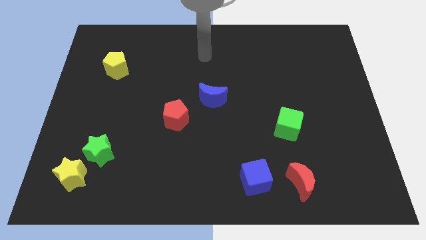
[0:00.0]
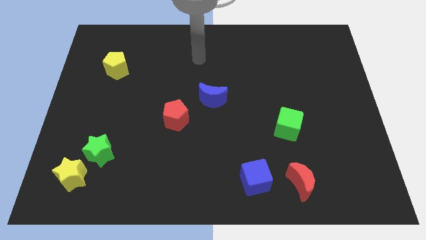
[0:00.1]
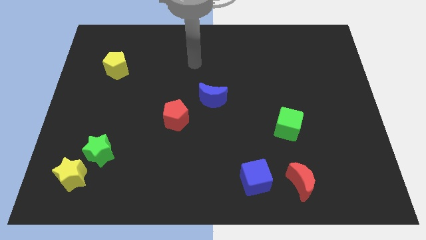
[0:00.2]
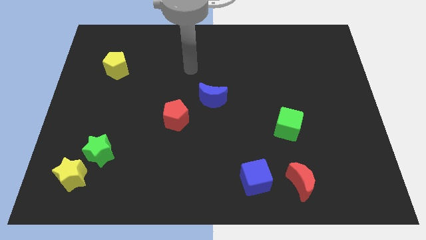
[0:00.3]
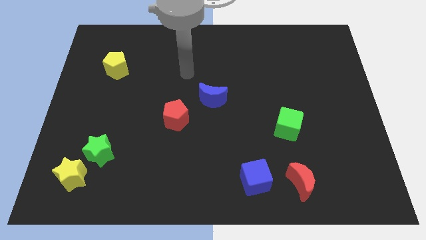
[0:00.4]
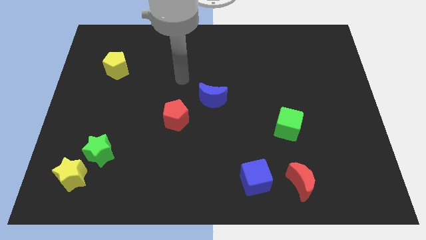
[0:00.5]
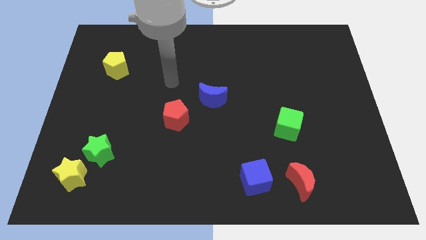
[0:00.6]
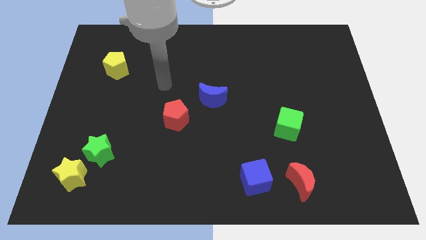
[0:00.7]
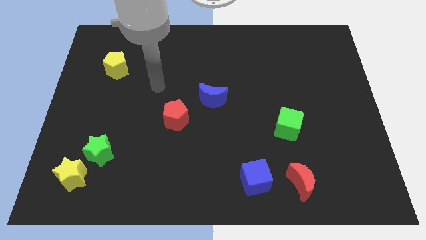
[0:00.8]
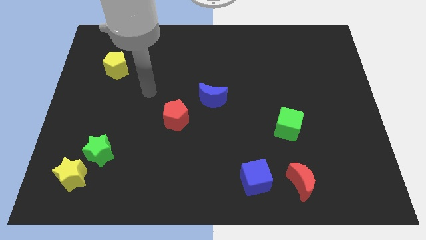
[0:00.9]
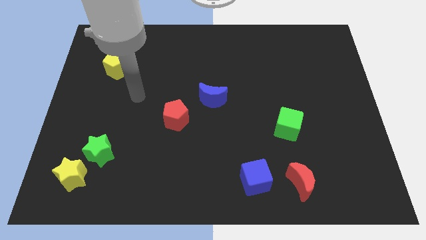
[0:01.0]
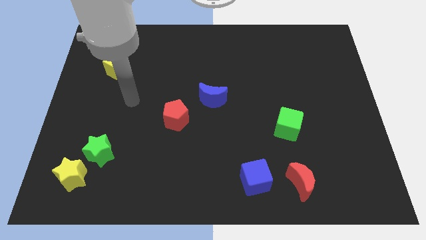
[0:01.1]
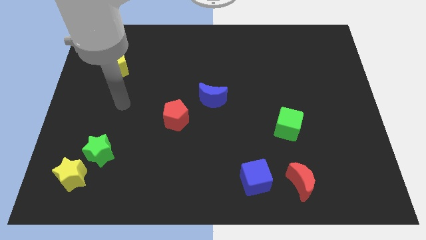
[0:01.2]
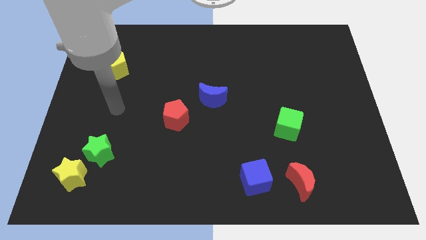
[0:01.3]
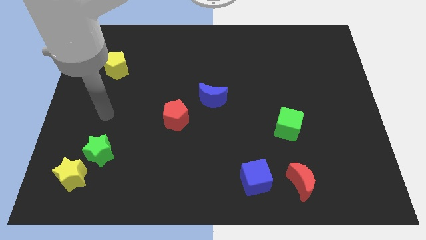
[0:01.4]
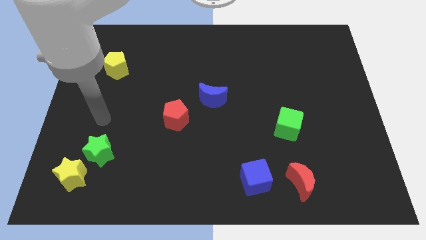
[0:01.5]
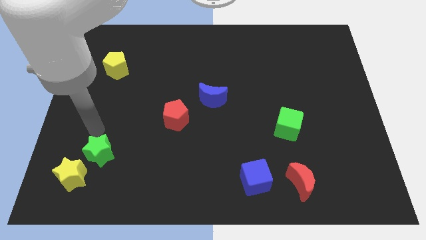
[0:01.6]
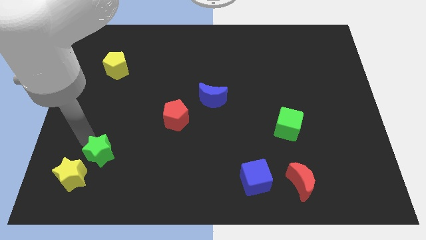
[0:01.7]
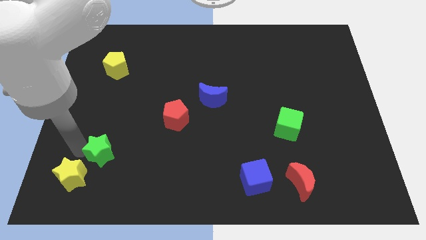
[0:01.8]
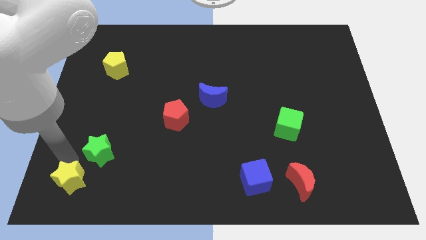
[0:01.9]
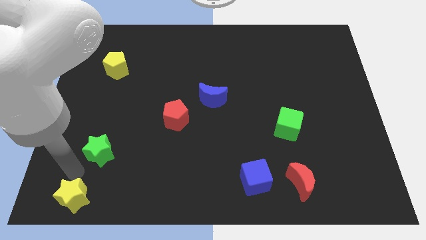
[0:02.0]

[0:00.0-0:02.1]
pull the green star apart from the yellow star

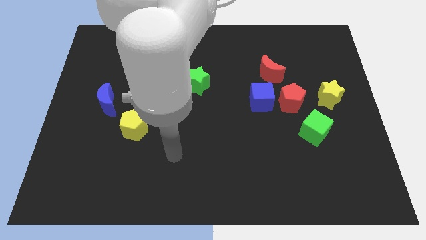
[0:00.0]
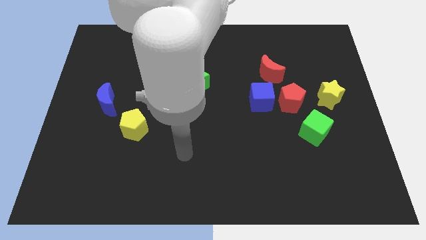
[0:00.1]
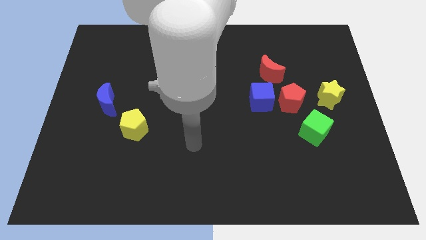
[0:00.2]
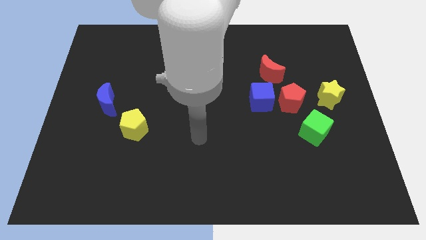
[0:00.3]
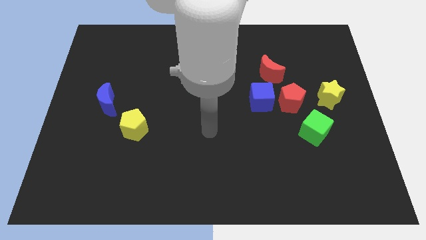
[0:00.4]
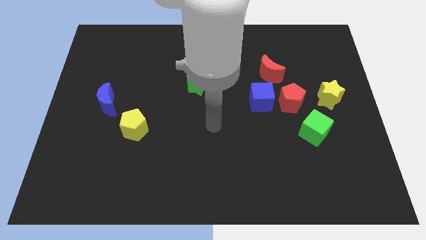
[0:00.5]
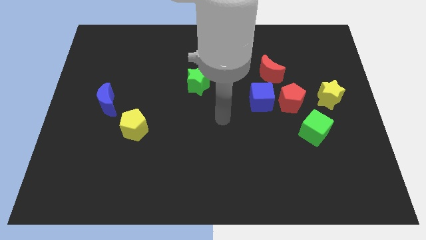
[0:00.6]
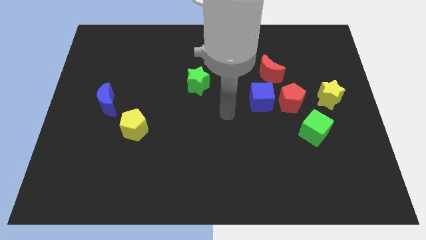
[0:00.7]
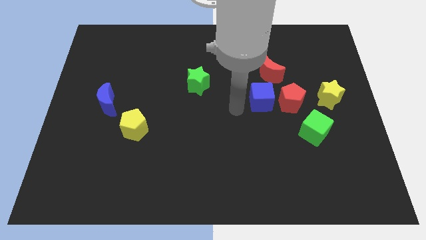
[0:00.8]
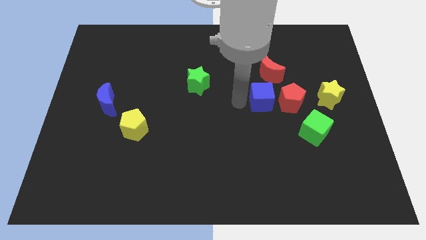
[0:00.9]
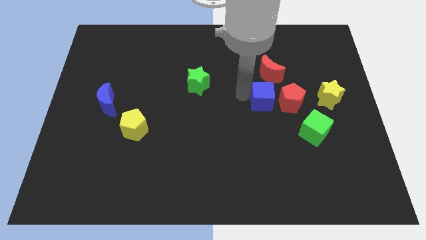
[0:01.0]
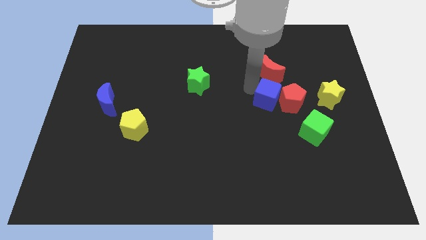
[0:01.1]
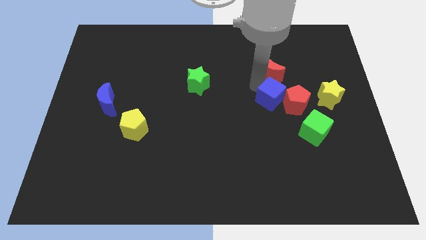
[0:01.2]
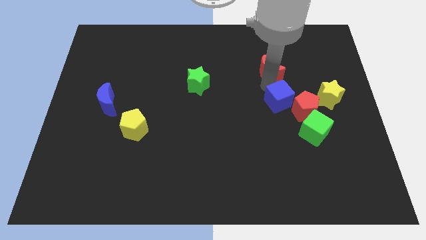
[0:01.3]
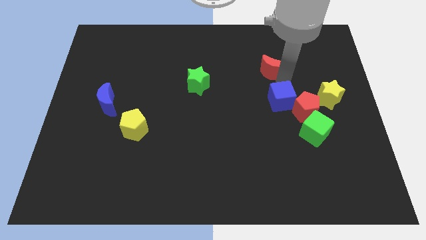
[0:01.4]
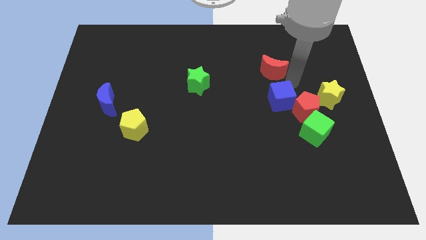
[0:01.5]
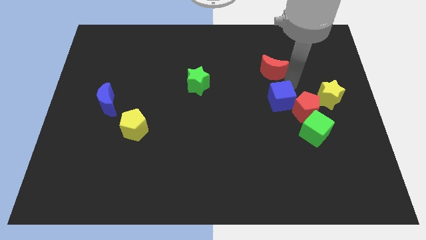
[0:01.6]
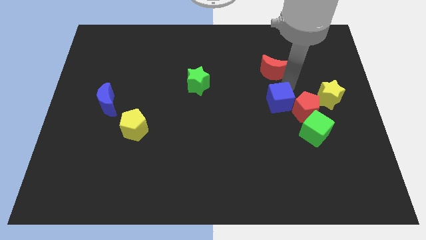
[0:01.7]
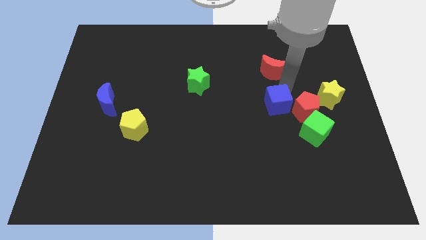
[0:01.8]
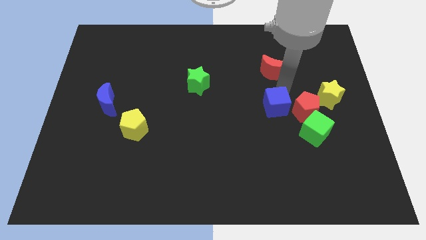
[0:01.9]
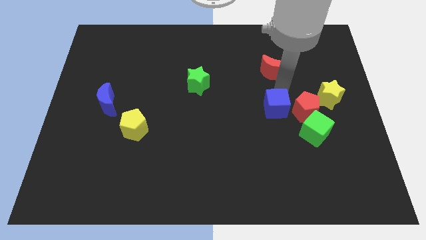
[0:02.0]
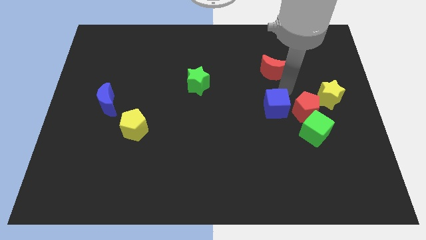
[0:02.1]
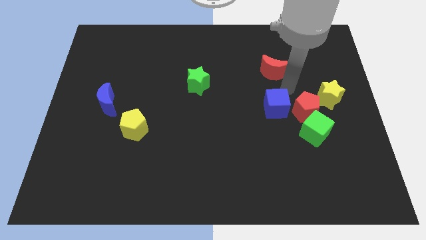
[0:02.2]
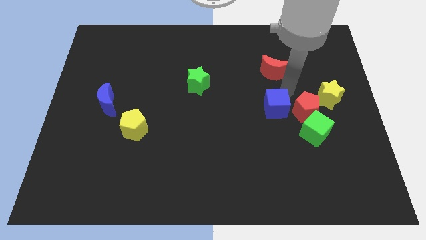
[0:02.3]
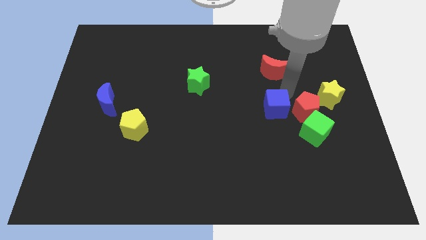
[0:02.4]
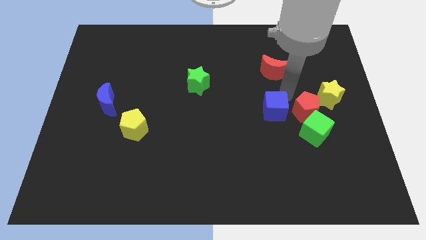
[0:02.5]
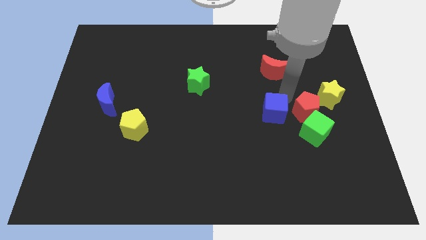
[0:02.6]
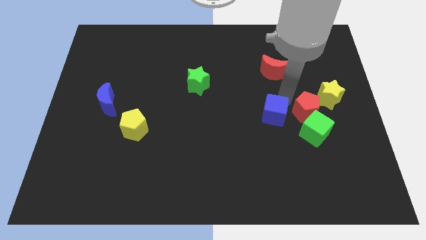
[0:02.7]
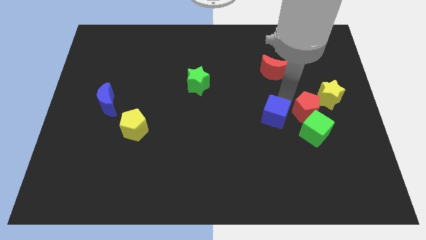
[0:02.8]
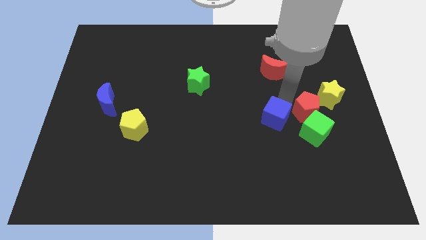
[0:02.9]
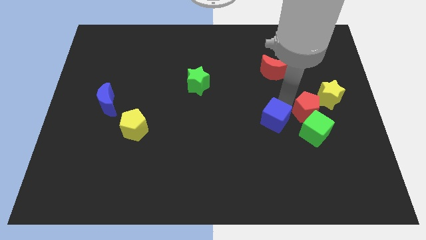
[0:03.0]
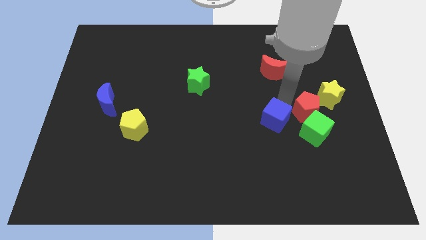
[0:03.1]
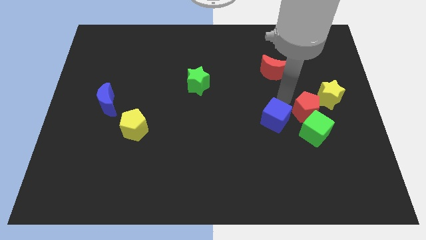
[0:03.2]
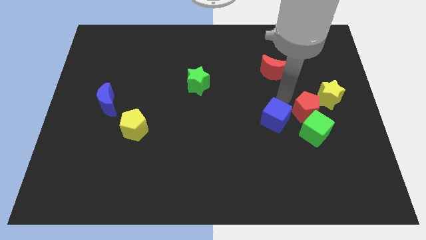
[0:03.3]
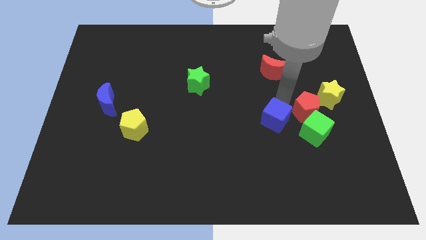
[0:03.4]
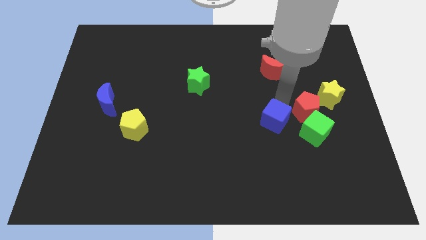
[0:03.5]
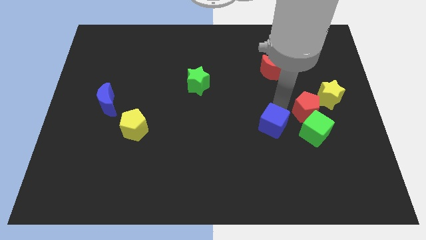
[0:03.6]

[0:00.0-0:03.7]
move the blue cube away from the red pentagon and red moon

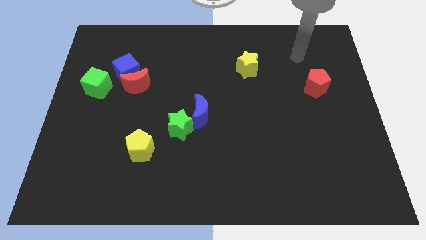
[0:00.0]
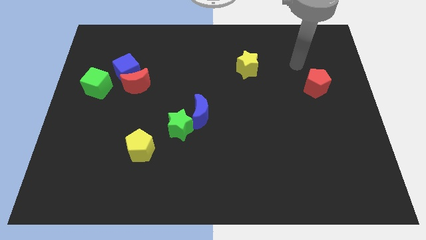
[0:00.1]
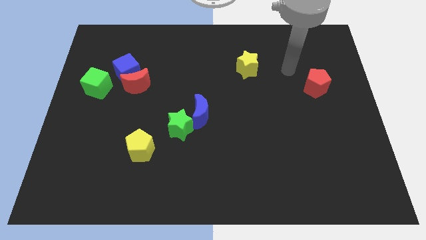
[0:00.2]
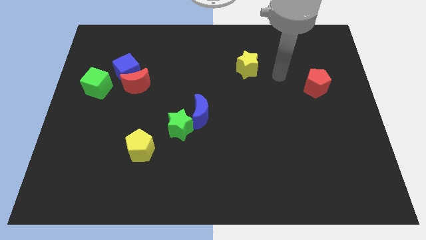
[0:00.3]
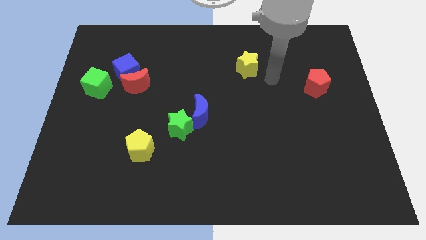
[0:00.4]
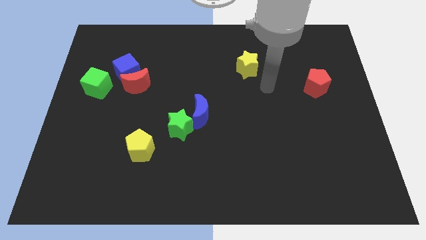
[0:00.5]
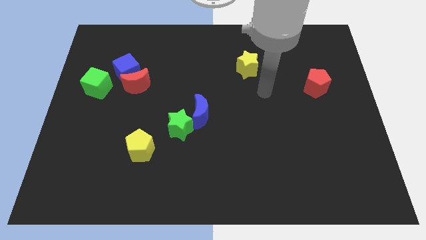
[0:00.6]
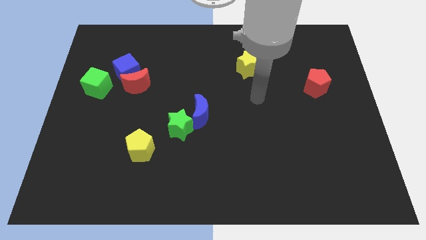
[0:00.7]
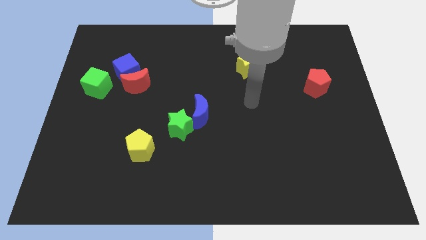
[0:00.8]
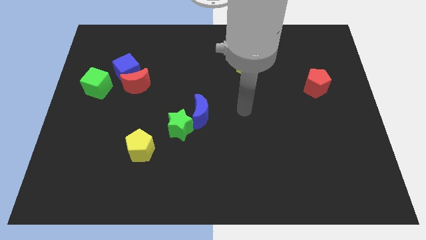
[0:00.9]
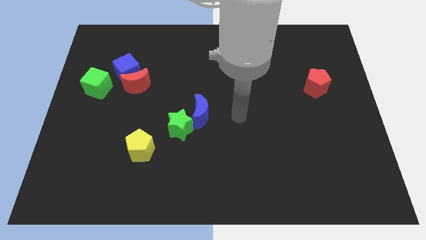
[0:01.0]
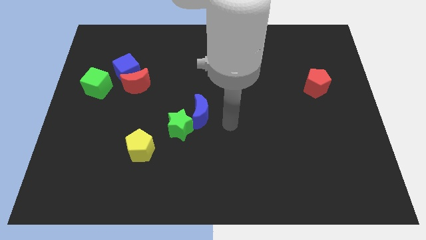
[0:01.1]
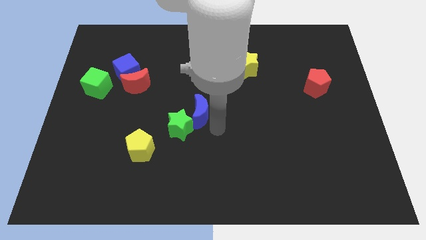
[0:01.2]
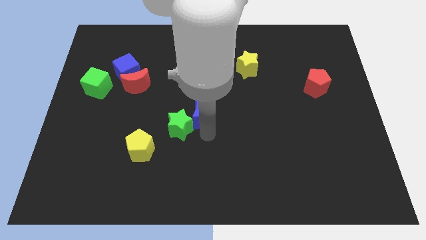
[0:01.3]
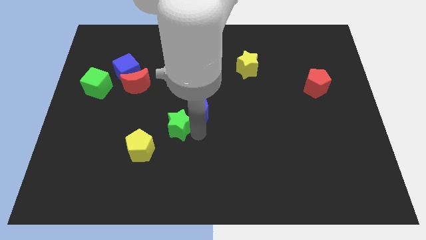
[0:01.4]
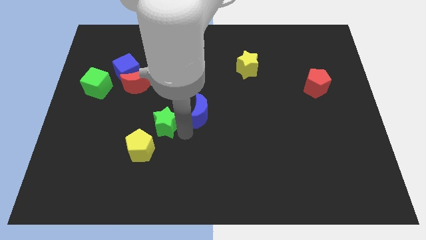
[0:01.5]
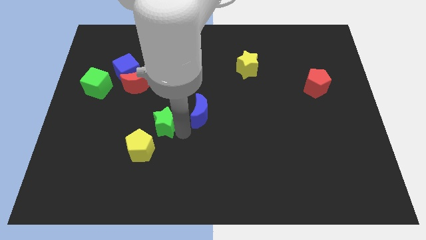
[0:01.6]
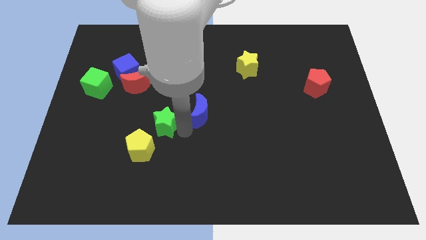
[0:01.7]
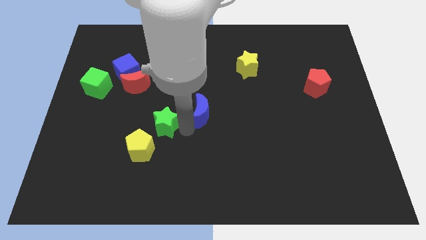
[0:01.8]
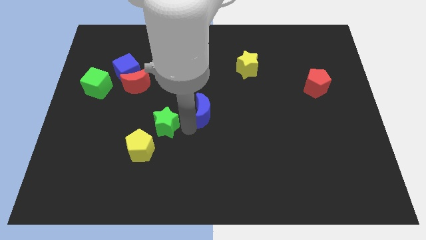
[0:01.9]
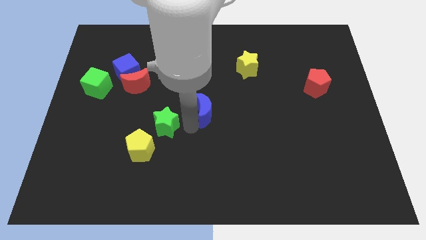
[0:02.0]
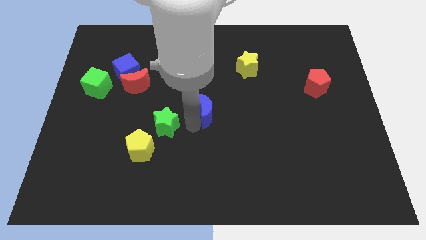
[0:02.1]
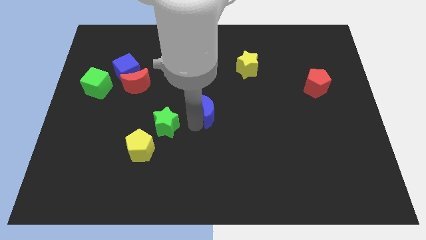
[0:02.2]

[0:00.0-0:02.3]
pull the blue moon apart from the green star

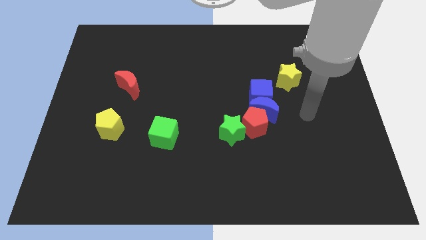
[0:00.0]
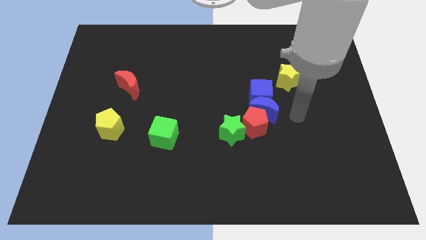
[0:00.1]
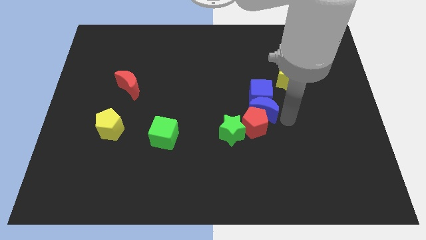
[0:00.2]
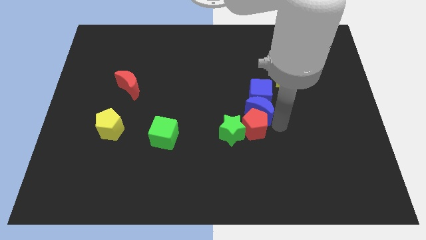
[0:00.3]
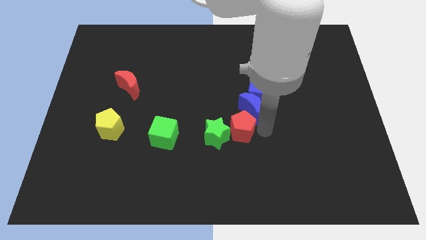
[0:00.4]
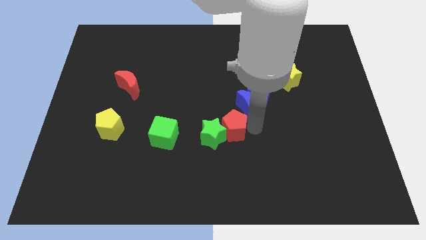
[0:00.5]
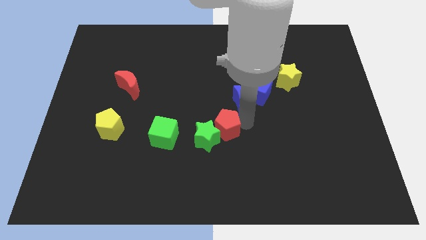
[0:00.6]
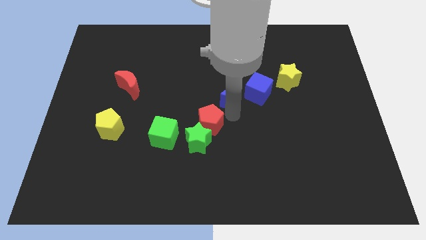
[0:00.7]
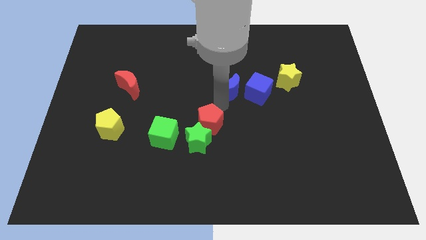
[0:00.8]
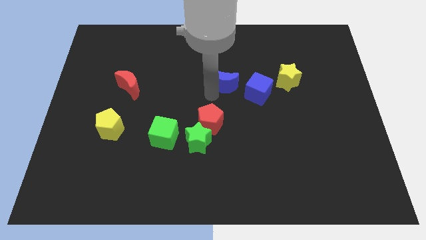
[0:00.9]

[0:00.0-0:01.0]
move the blue moon away from the blue cube, red pentagon, and green star

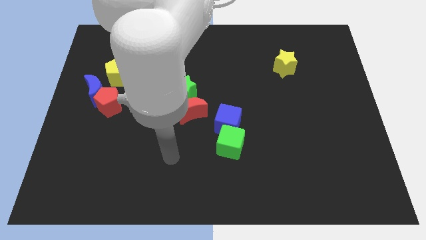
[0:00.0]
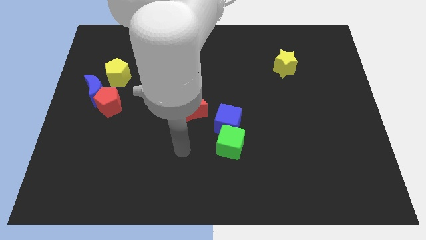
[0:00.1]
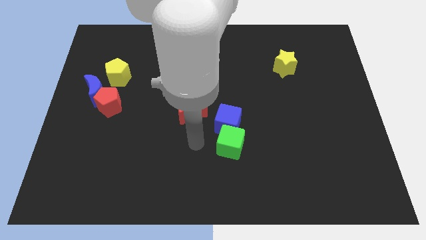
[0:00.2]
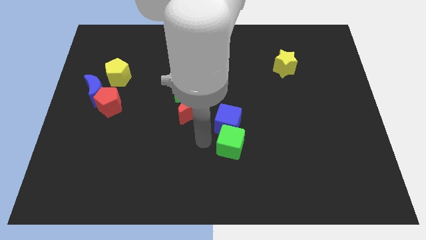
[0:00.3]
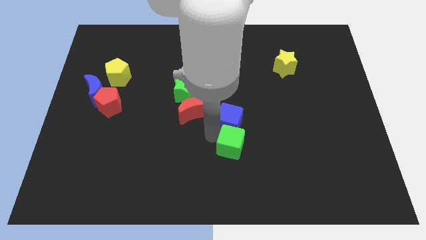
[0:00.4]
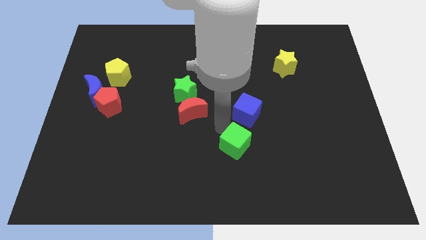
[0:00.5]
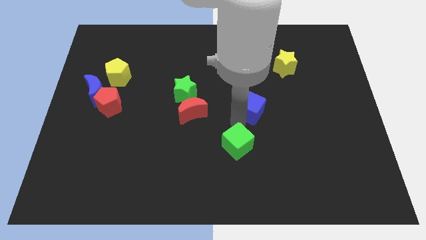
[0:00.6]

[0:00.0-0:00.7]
move the green cube away from the blue cube
